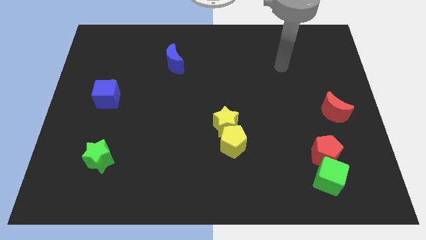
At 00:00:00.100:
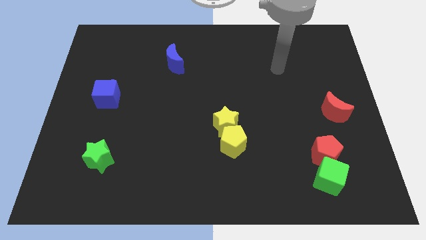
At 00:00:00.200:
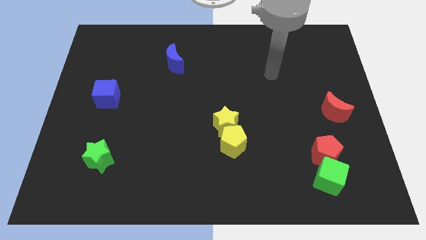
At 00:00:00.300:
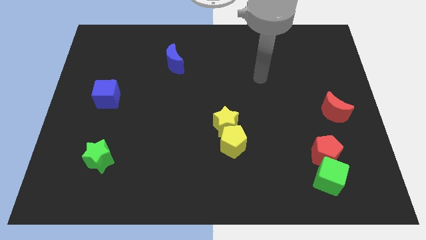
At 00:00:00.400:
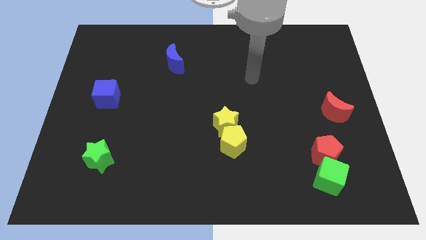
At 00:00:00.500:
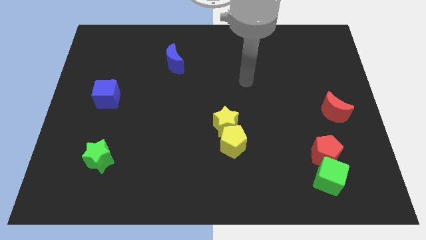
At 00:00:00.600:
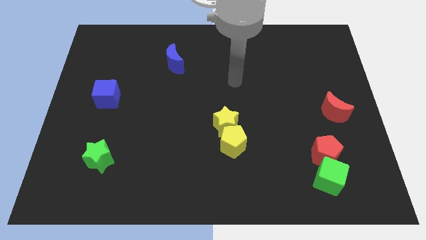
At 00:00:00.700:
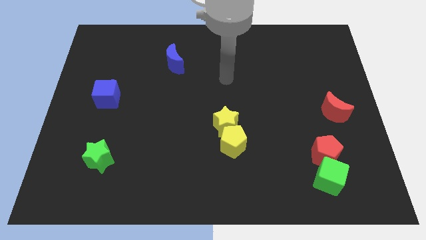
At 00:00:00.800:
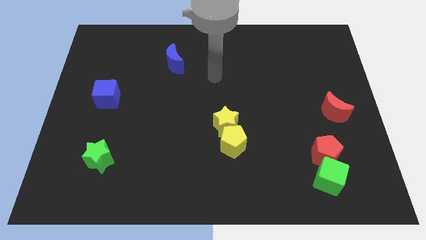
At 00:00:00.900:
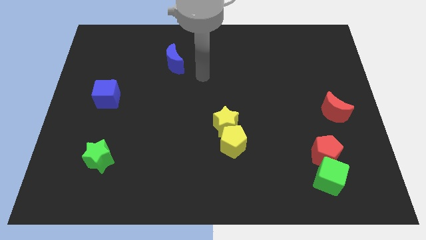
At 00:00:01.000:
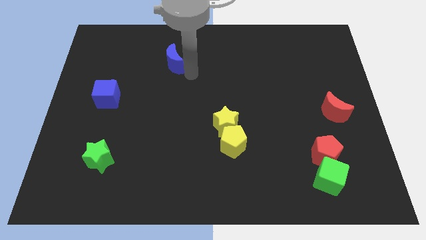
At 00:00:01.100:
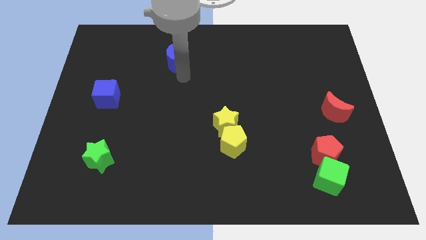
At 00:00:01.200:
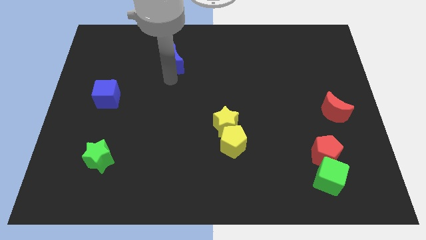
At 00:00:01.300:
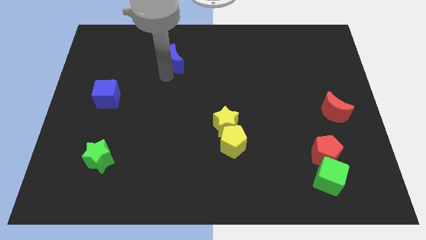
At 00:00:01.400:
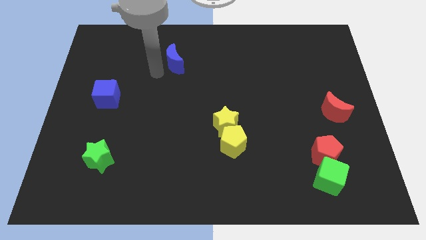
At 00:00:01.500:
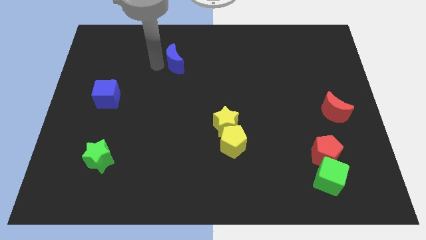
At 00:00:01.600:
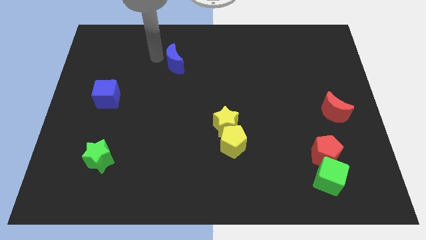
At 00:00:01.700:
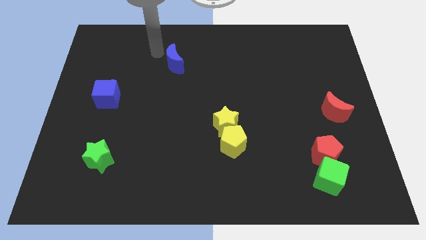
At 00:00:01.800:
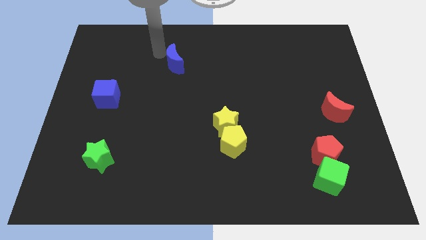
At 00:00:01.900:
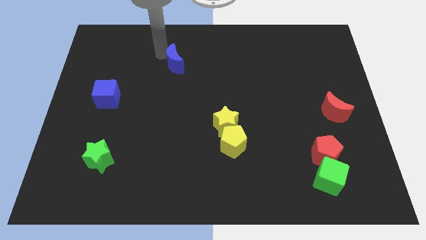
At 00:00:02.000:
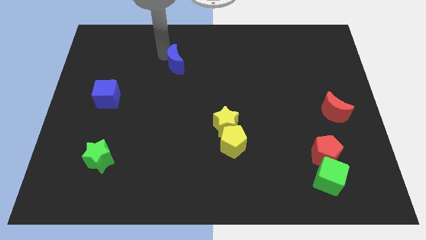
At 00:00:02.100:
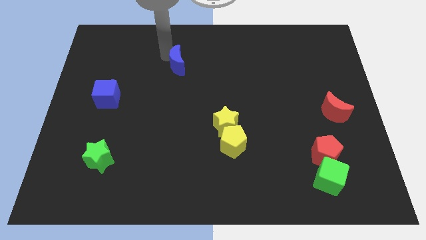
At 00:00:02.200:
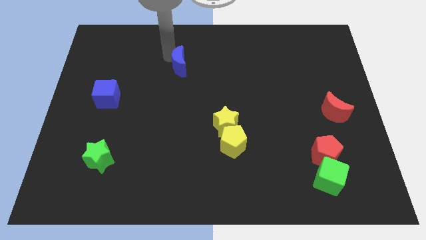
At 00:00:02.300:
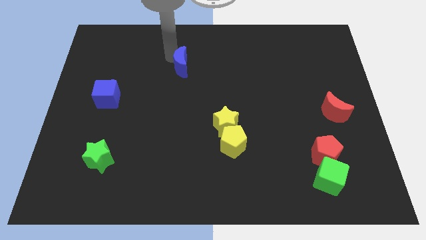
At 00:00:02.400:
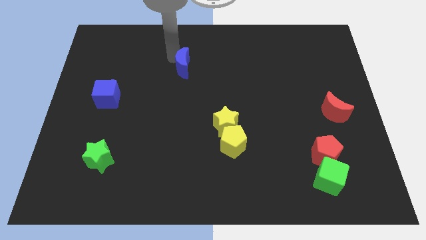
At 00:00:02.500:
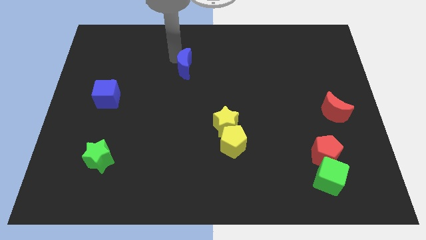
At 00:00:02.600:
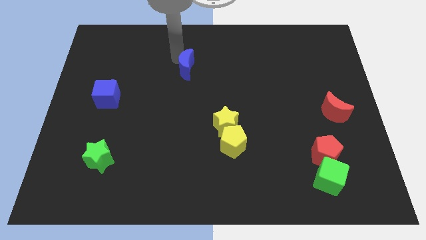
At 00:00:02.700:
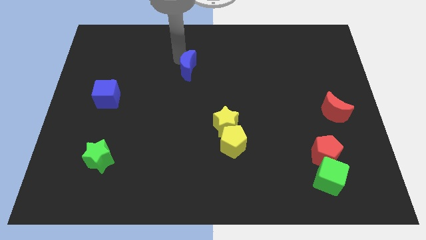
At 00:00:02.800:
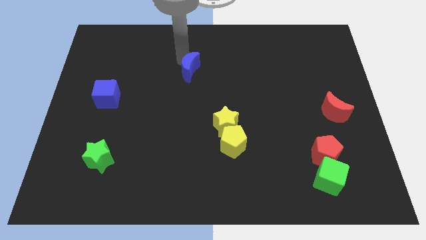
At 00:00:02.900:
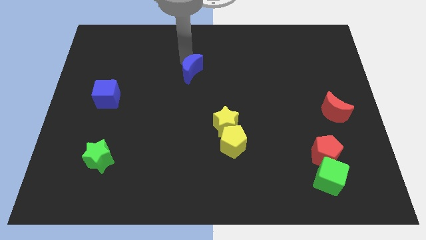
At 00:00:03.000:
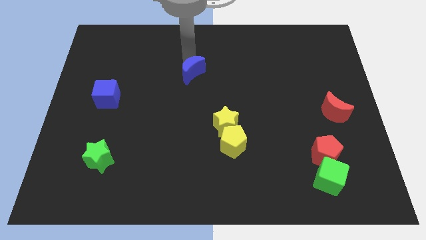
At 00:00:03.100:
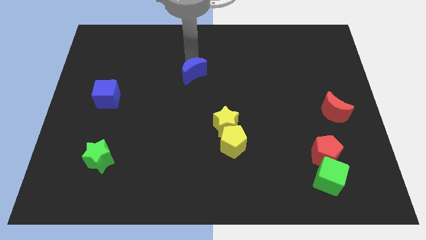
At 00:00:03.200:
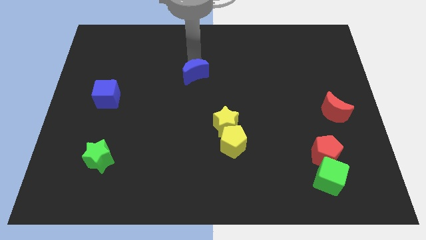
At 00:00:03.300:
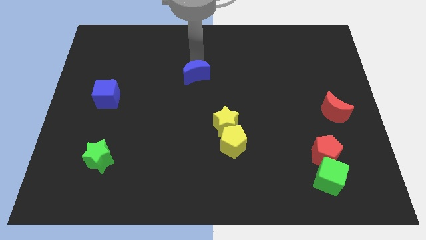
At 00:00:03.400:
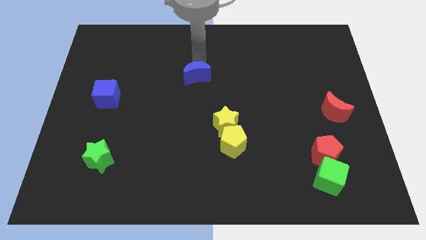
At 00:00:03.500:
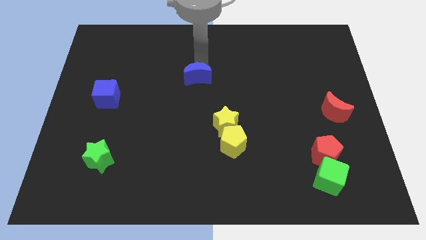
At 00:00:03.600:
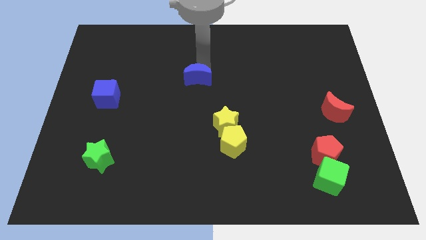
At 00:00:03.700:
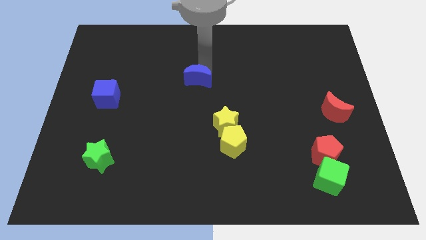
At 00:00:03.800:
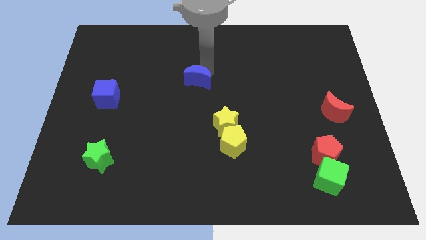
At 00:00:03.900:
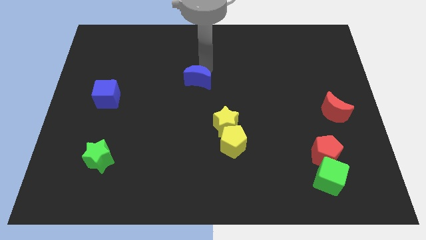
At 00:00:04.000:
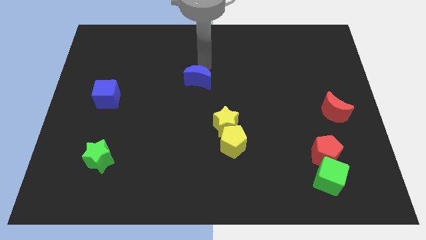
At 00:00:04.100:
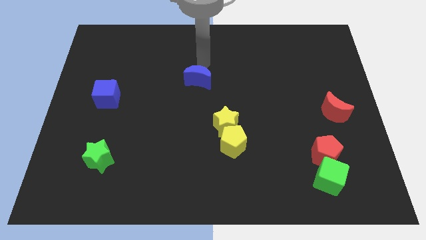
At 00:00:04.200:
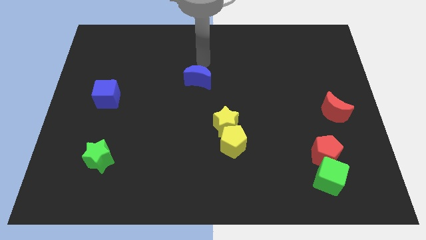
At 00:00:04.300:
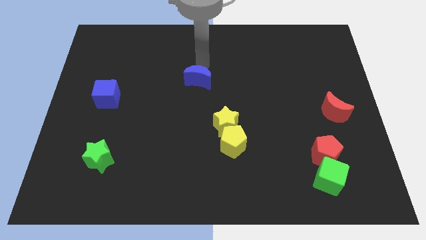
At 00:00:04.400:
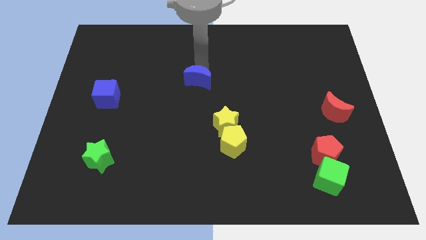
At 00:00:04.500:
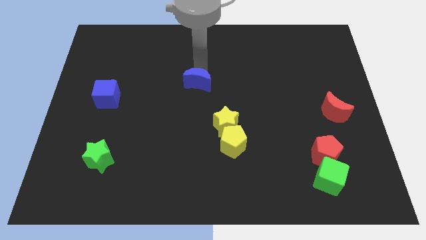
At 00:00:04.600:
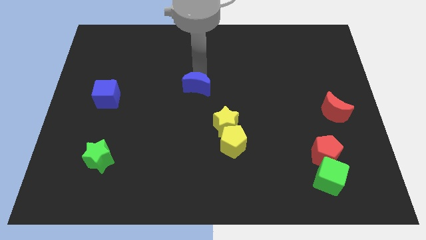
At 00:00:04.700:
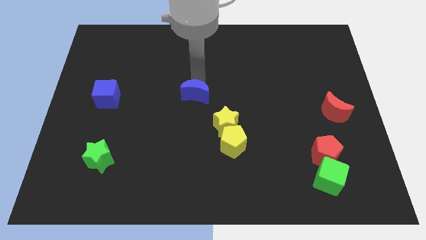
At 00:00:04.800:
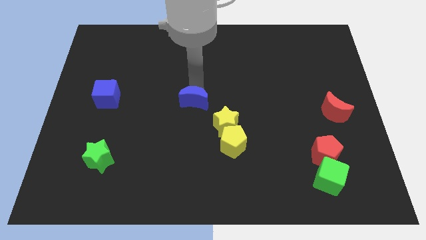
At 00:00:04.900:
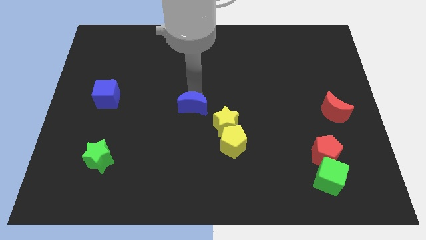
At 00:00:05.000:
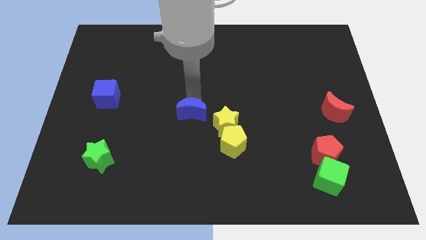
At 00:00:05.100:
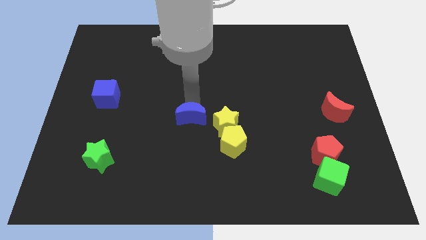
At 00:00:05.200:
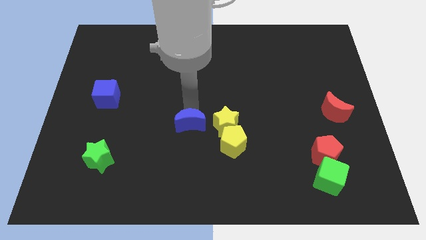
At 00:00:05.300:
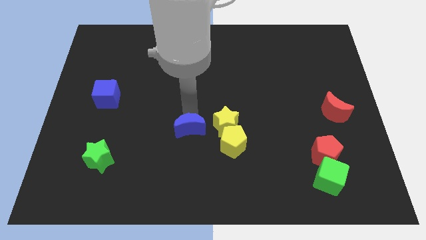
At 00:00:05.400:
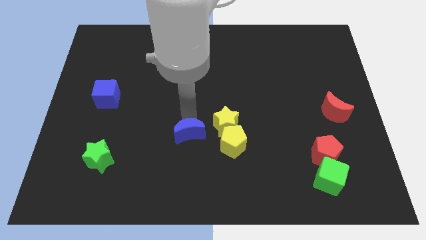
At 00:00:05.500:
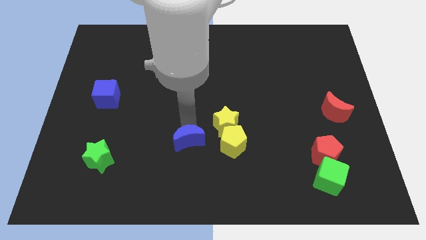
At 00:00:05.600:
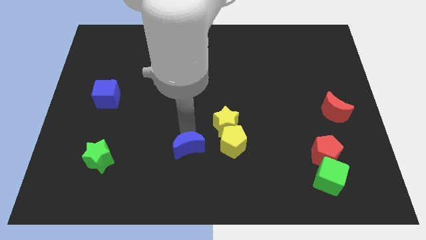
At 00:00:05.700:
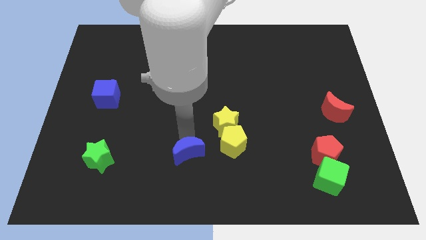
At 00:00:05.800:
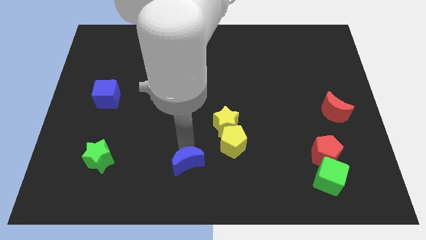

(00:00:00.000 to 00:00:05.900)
push the blue moon to the bottom side
